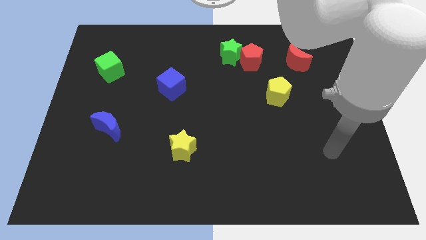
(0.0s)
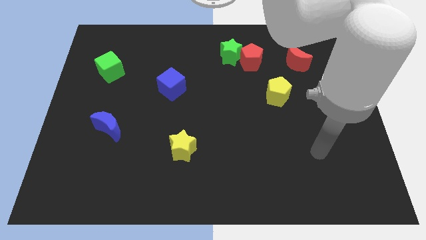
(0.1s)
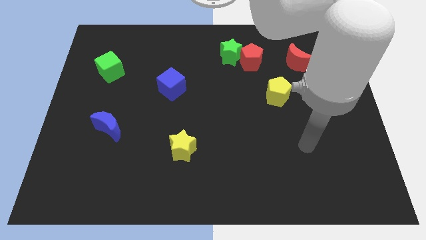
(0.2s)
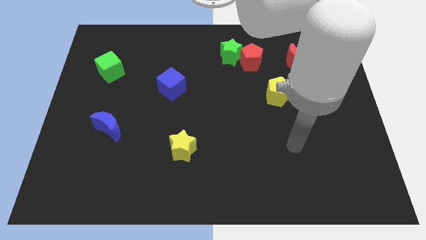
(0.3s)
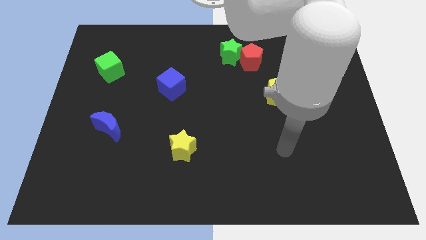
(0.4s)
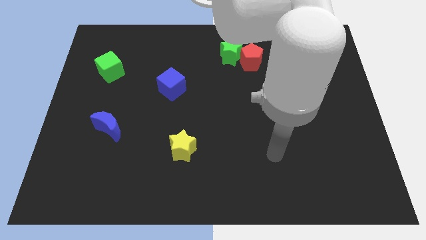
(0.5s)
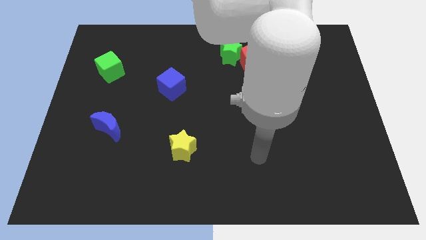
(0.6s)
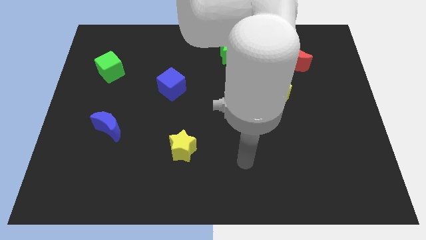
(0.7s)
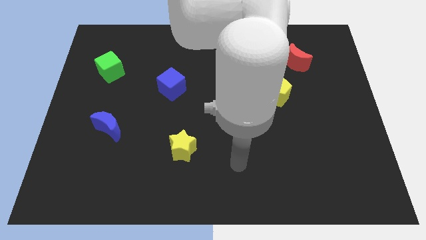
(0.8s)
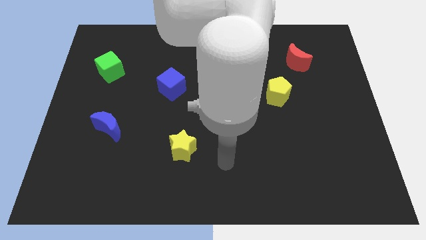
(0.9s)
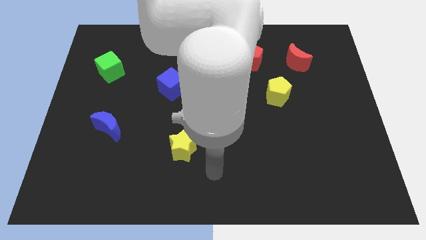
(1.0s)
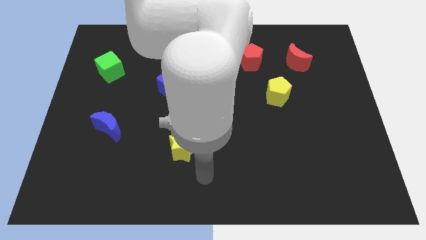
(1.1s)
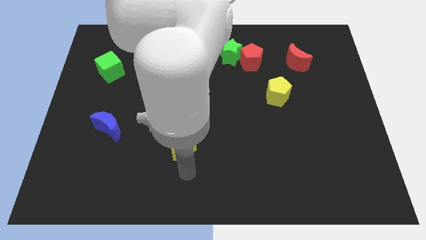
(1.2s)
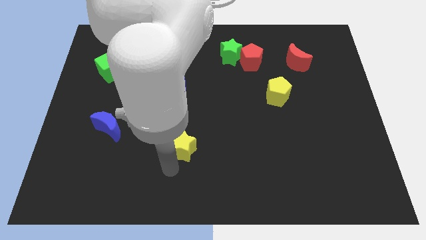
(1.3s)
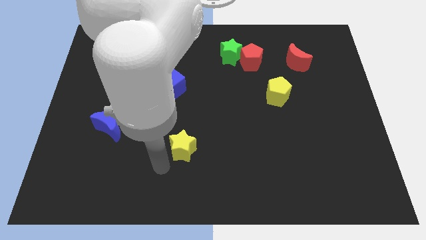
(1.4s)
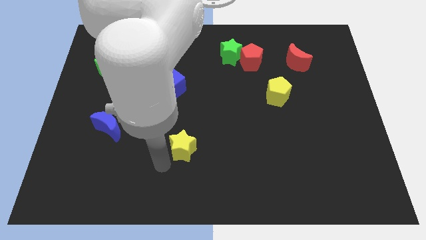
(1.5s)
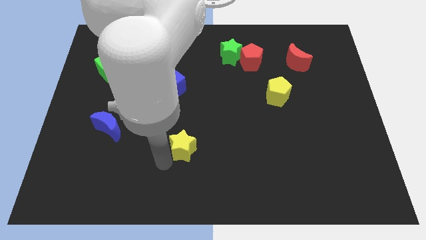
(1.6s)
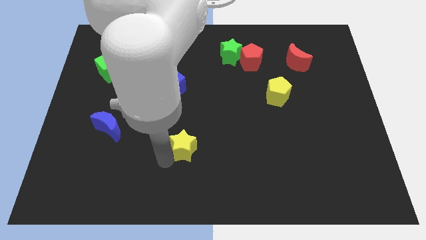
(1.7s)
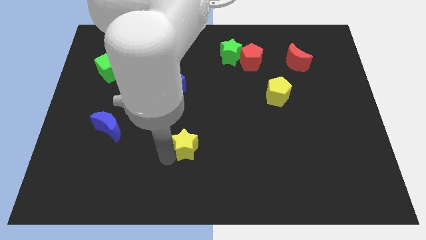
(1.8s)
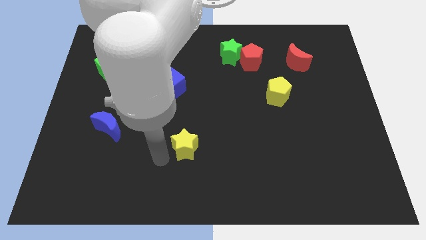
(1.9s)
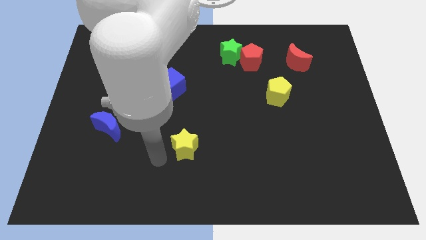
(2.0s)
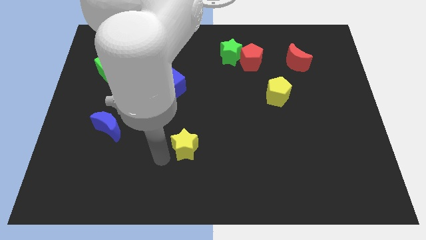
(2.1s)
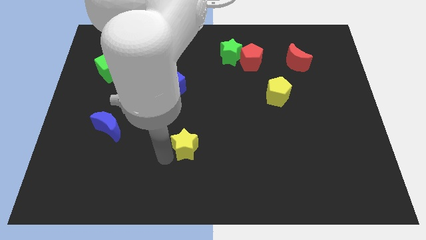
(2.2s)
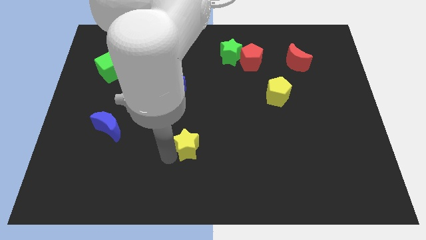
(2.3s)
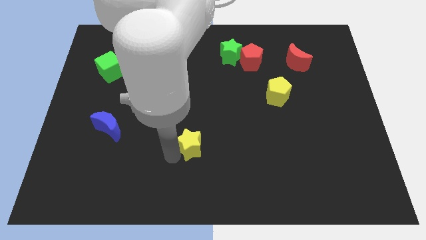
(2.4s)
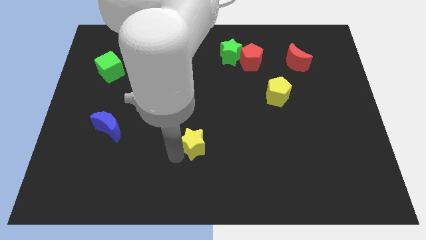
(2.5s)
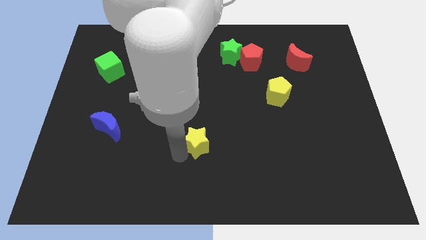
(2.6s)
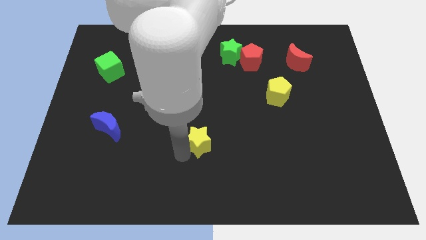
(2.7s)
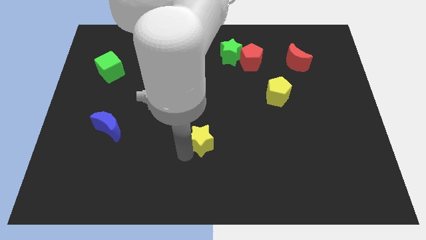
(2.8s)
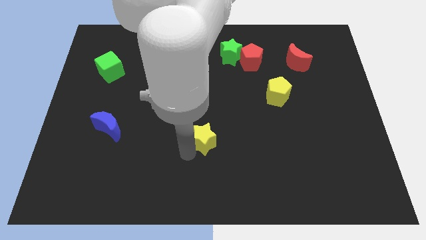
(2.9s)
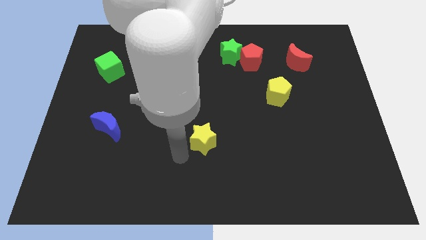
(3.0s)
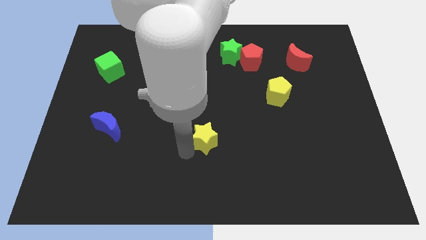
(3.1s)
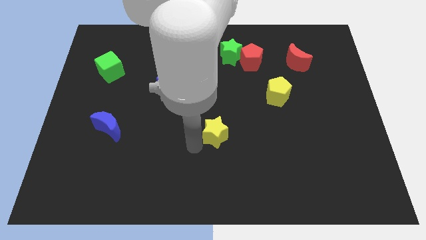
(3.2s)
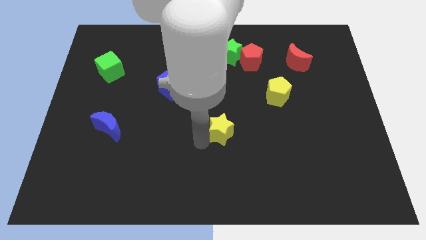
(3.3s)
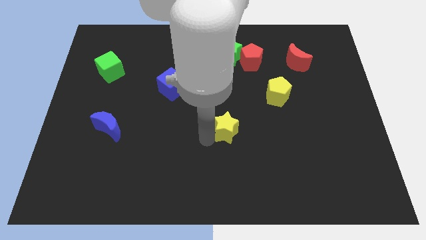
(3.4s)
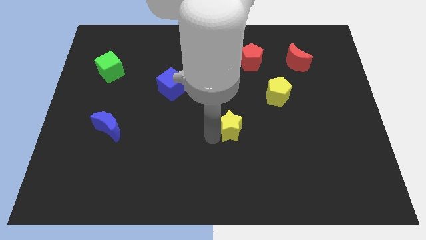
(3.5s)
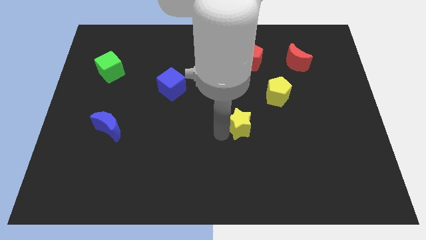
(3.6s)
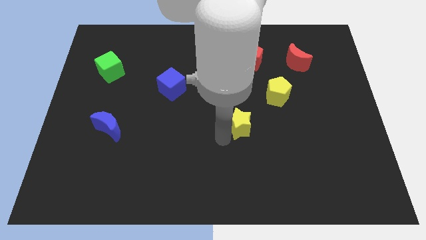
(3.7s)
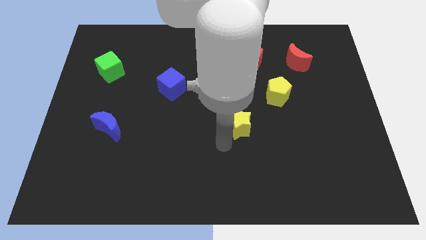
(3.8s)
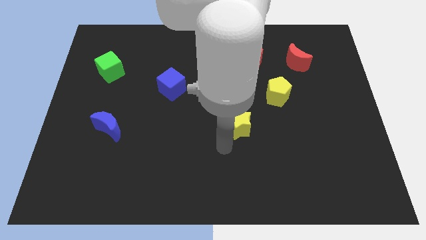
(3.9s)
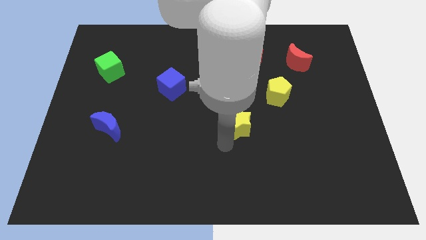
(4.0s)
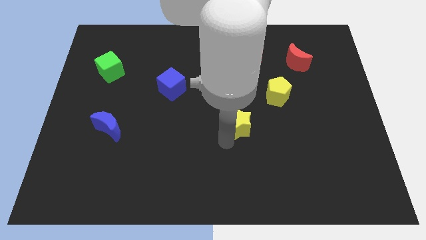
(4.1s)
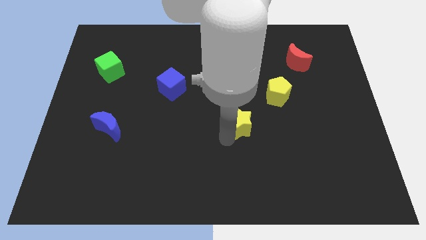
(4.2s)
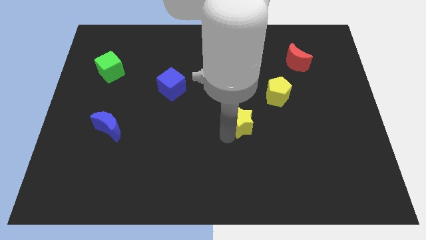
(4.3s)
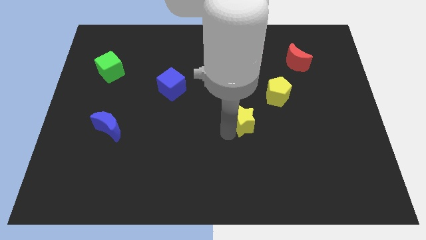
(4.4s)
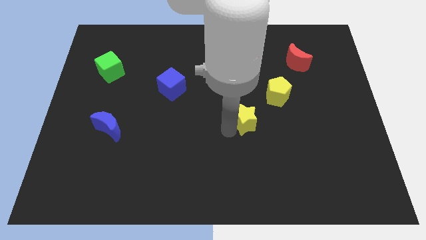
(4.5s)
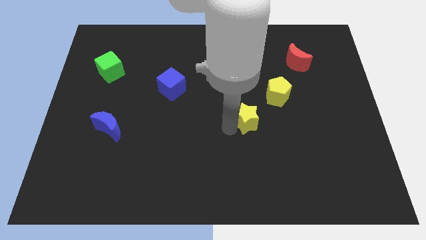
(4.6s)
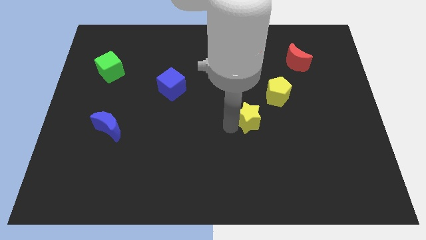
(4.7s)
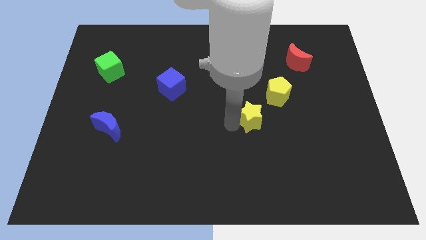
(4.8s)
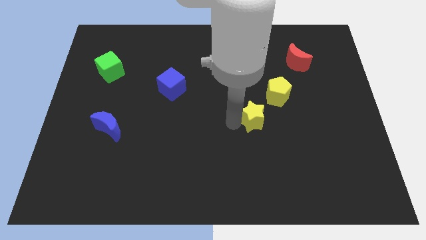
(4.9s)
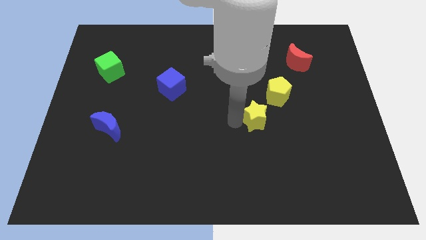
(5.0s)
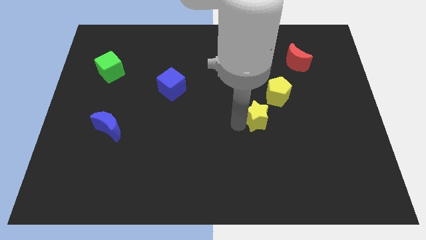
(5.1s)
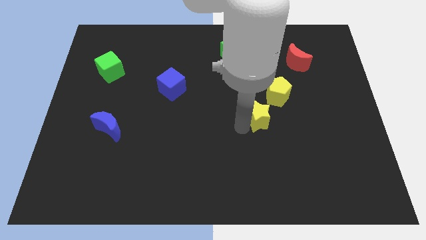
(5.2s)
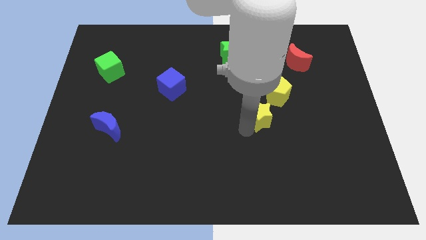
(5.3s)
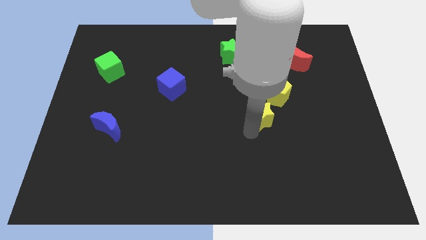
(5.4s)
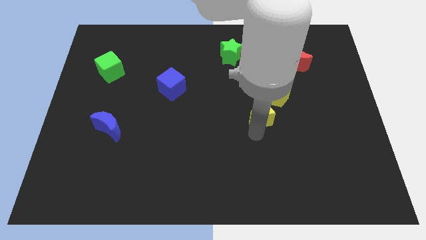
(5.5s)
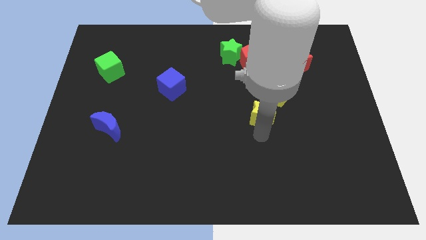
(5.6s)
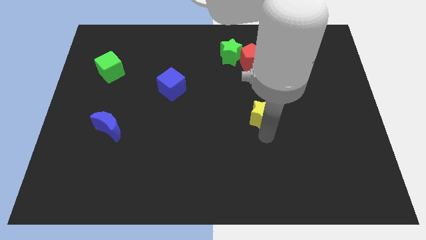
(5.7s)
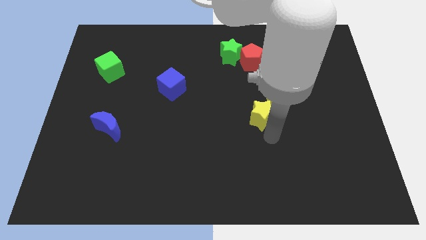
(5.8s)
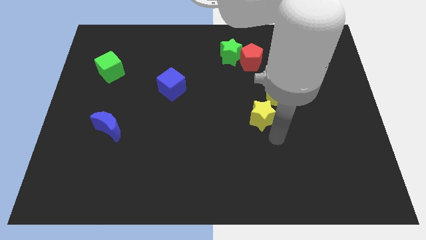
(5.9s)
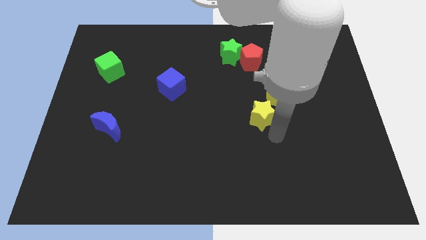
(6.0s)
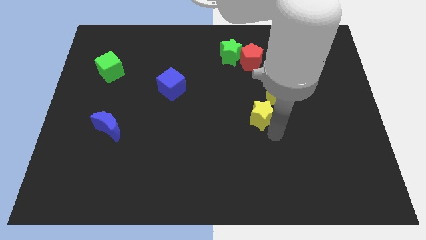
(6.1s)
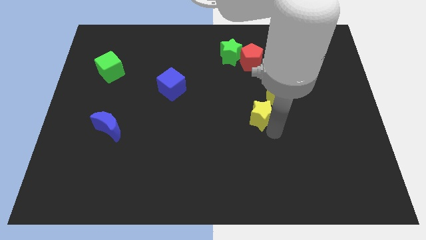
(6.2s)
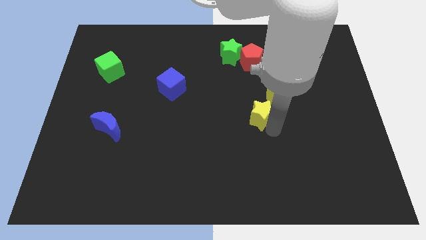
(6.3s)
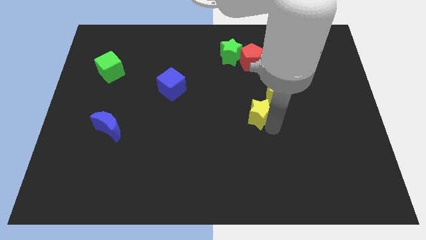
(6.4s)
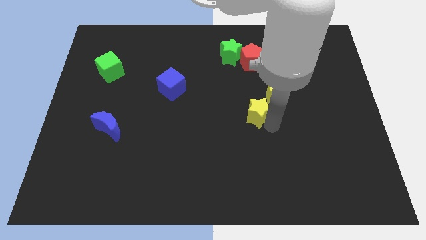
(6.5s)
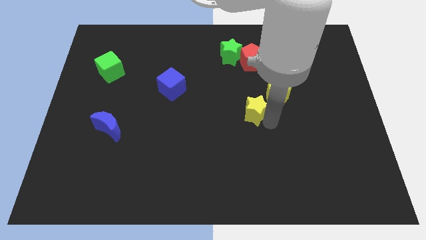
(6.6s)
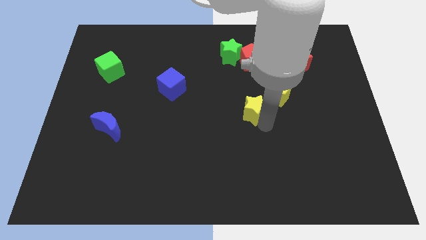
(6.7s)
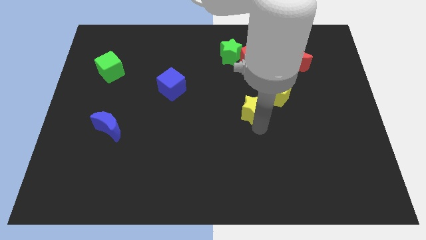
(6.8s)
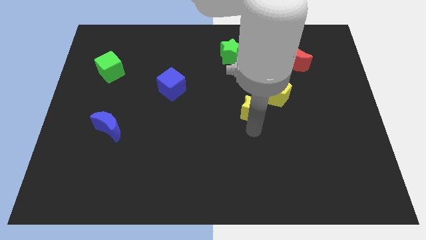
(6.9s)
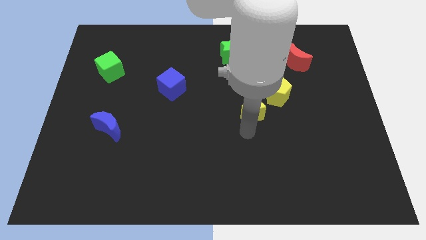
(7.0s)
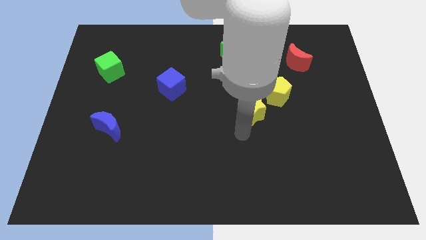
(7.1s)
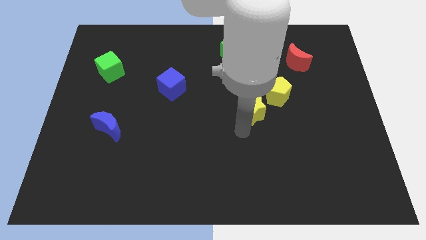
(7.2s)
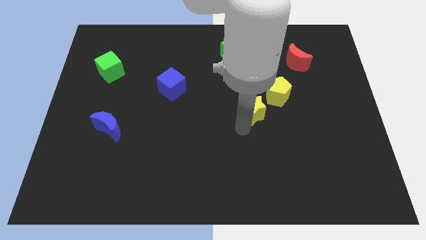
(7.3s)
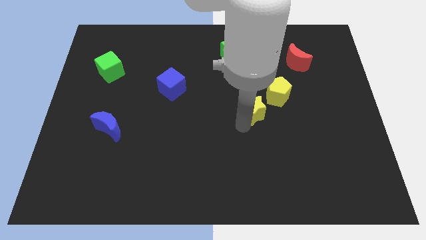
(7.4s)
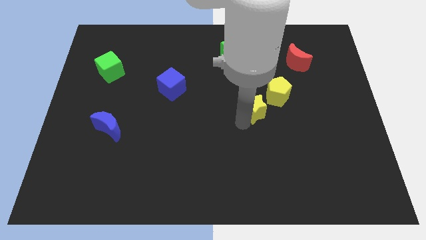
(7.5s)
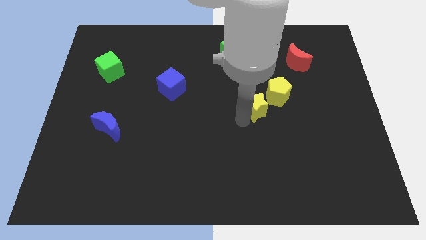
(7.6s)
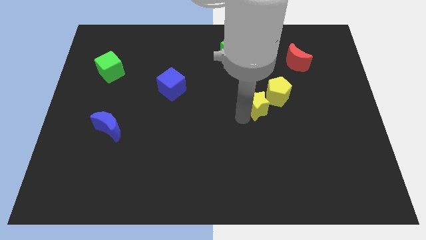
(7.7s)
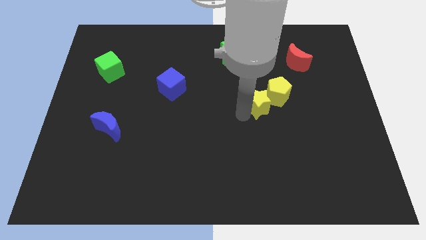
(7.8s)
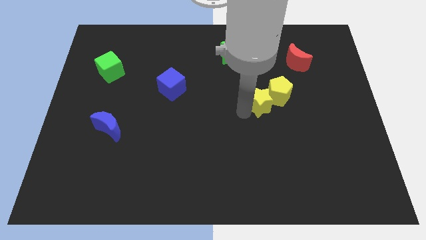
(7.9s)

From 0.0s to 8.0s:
slide the yellow star diagonally up and right

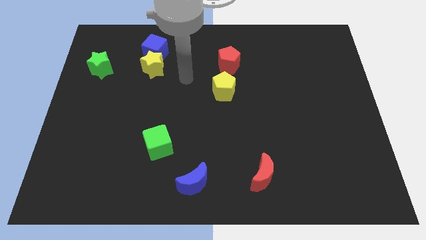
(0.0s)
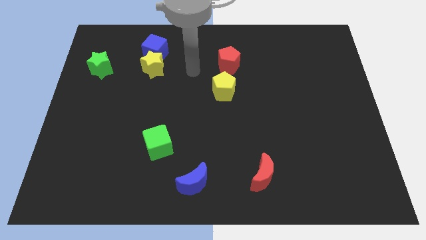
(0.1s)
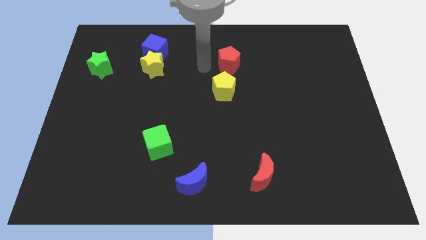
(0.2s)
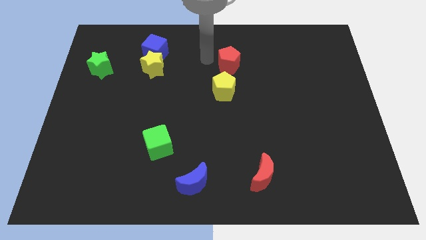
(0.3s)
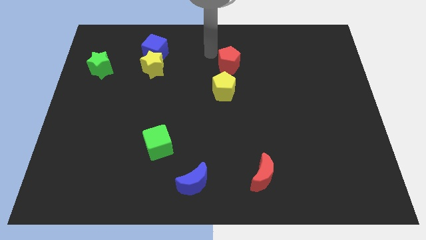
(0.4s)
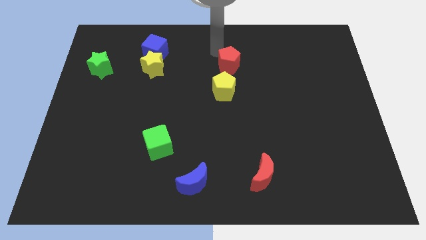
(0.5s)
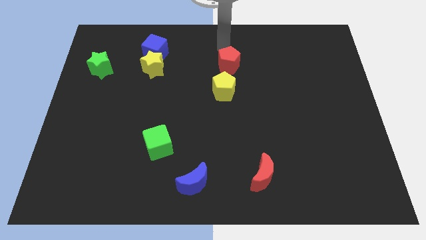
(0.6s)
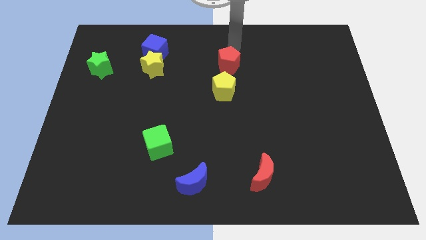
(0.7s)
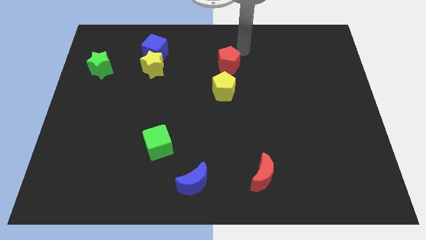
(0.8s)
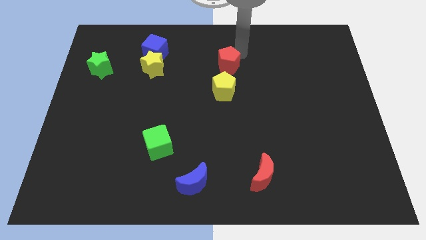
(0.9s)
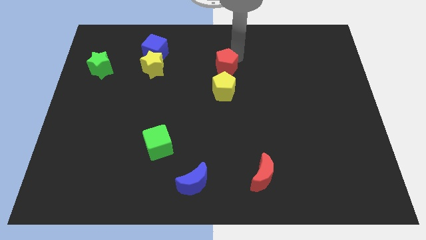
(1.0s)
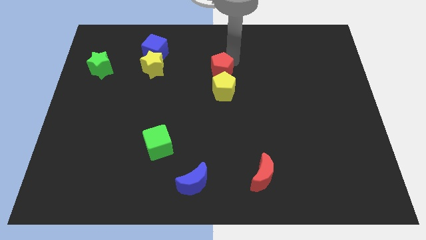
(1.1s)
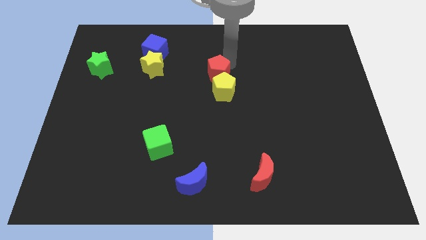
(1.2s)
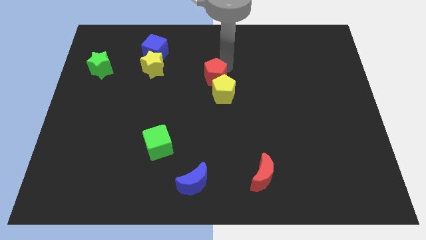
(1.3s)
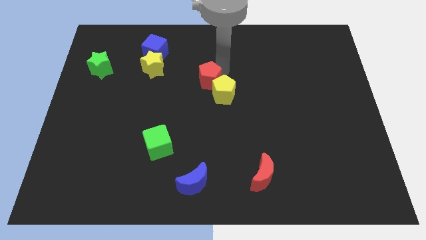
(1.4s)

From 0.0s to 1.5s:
push the red pentagon slightly down and left
